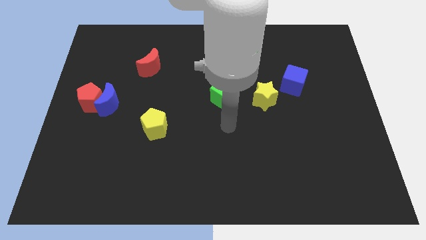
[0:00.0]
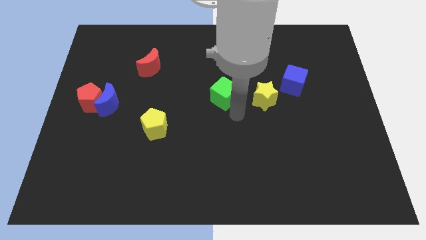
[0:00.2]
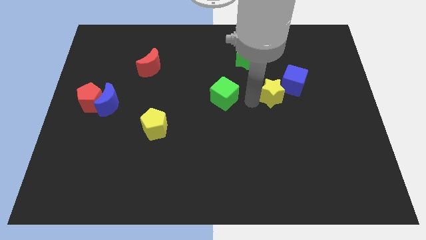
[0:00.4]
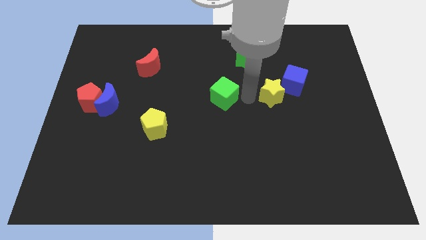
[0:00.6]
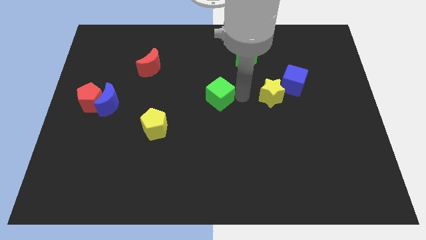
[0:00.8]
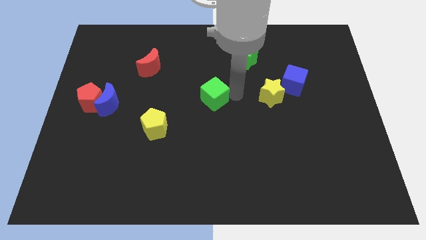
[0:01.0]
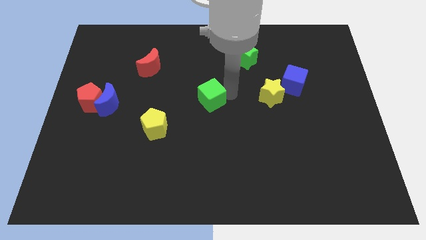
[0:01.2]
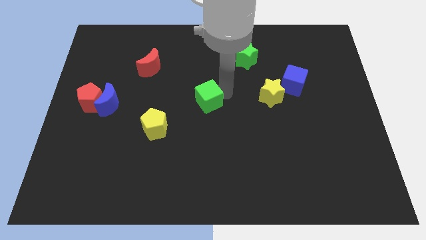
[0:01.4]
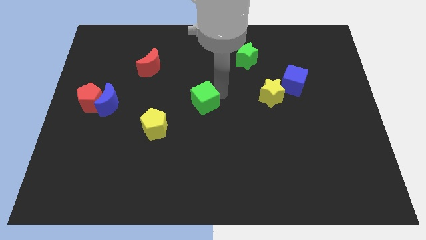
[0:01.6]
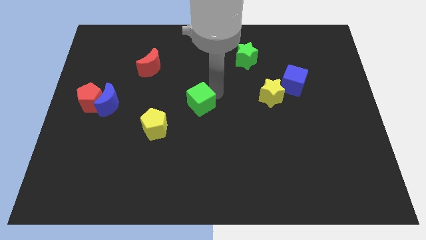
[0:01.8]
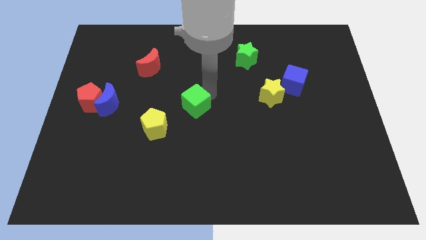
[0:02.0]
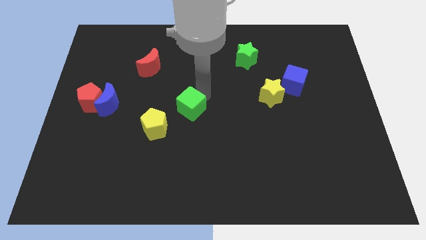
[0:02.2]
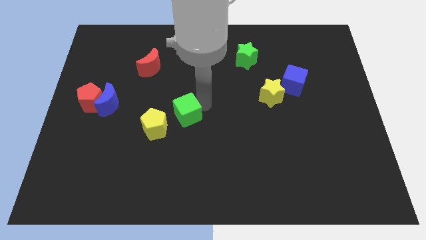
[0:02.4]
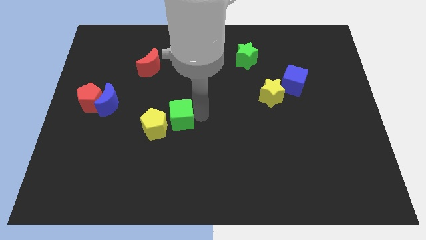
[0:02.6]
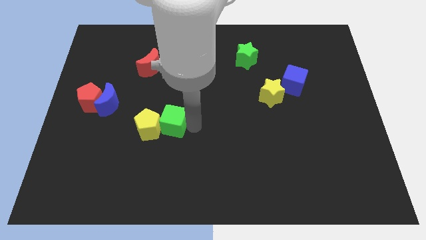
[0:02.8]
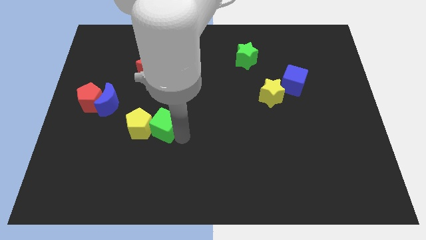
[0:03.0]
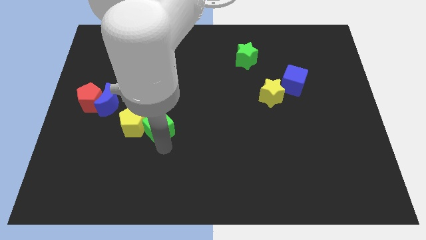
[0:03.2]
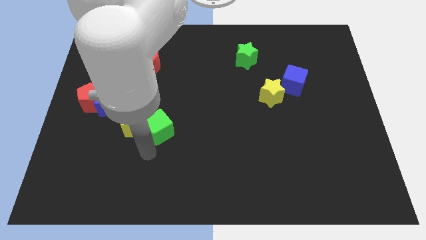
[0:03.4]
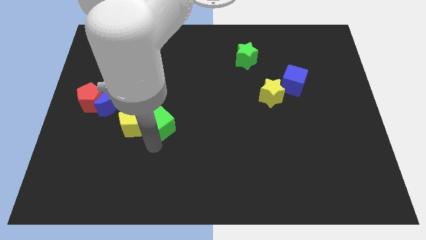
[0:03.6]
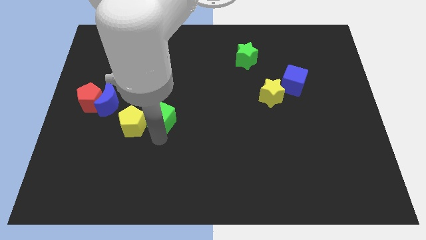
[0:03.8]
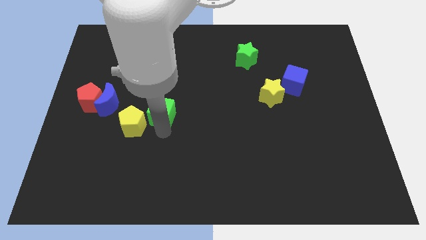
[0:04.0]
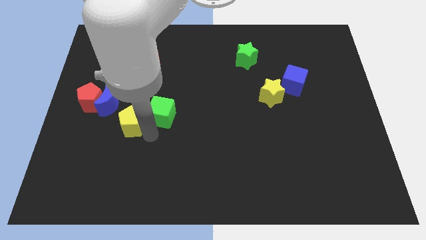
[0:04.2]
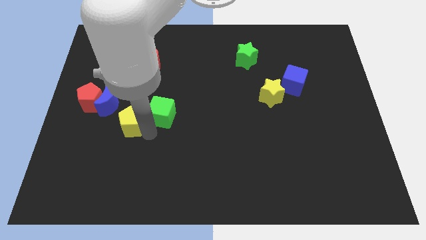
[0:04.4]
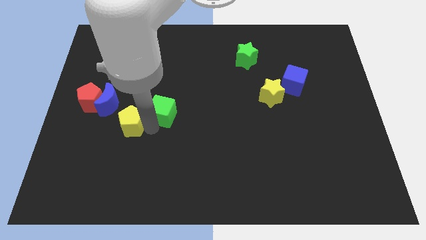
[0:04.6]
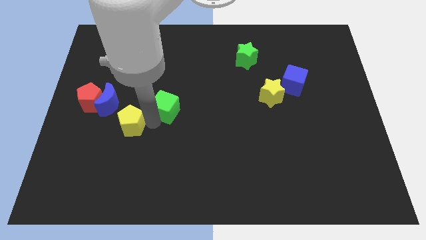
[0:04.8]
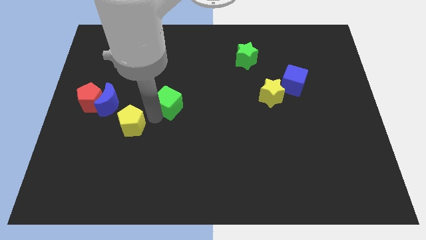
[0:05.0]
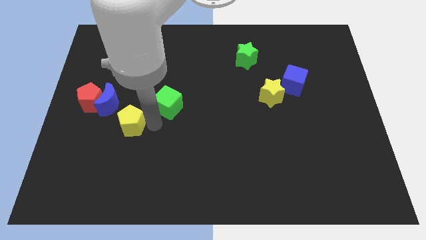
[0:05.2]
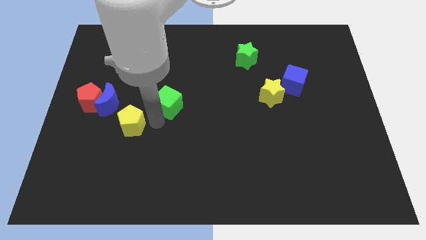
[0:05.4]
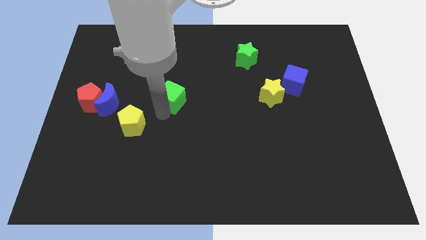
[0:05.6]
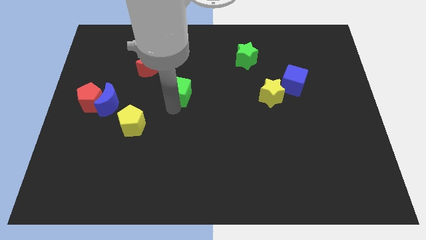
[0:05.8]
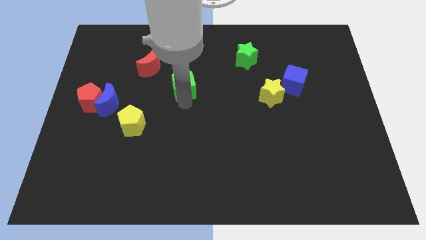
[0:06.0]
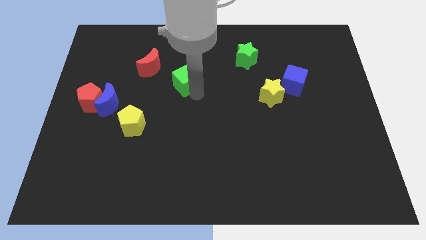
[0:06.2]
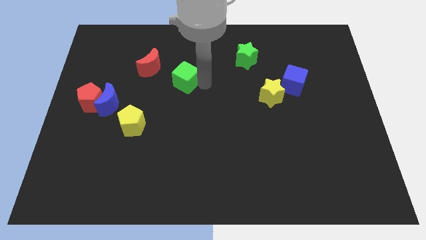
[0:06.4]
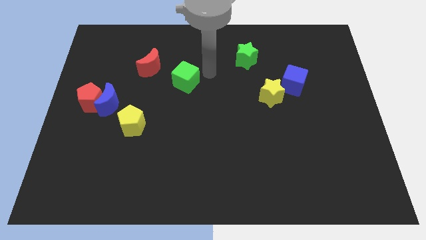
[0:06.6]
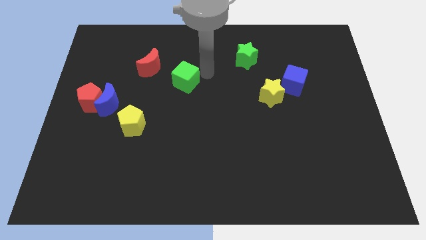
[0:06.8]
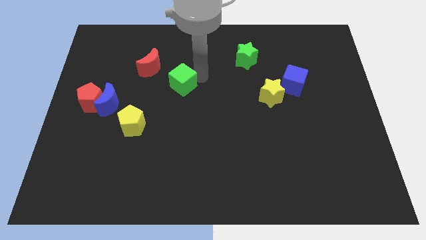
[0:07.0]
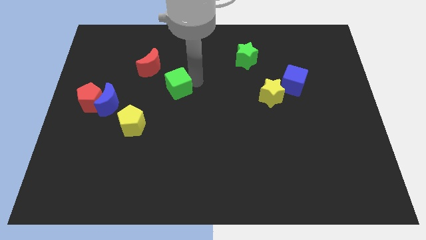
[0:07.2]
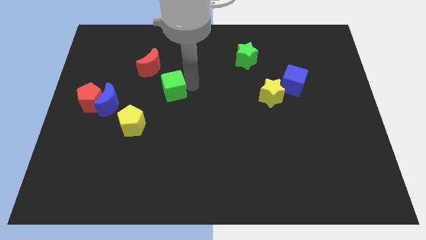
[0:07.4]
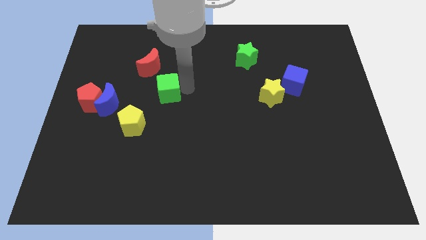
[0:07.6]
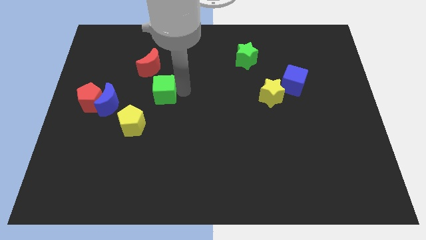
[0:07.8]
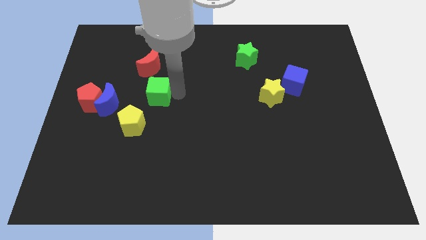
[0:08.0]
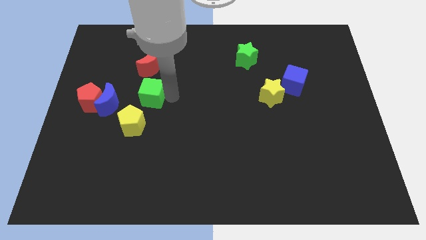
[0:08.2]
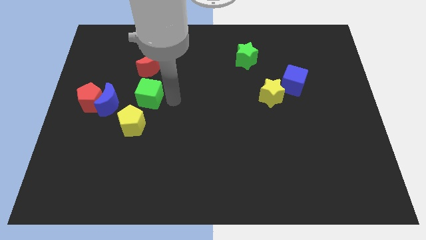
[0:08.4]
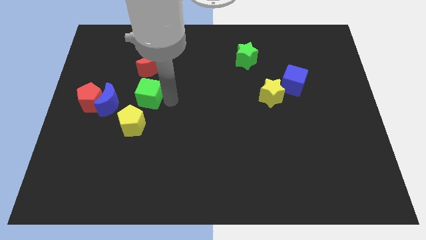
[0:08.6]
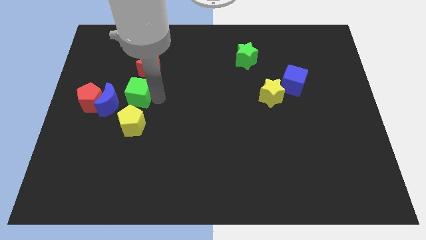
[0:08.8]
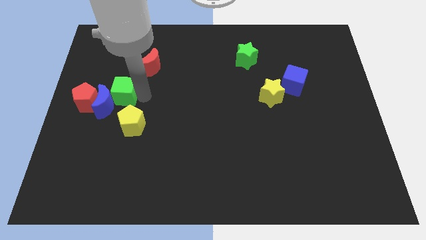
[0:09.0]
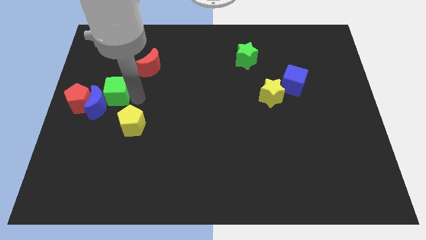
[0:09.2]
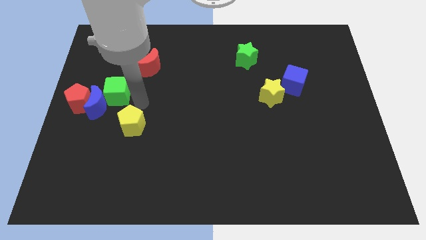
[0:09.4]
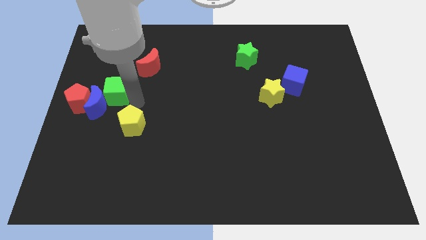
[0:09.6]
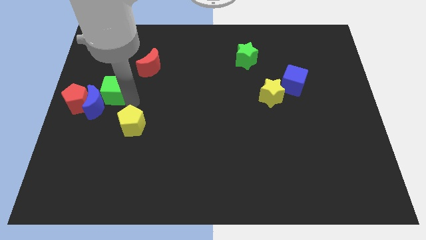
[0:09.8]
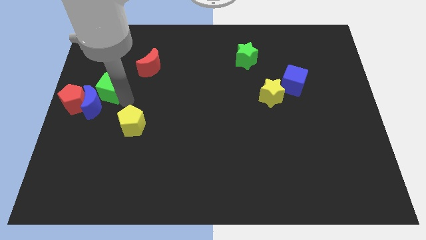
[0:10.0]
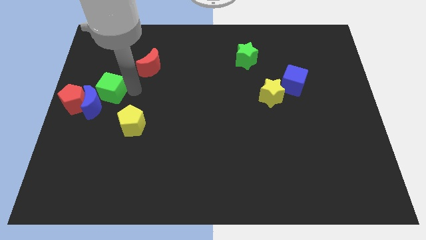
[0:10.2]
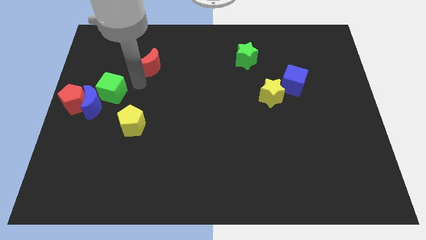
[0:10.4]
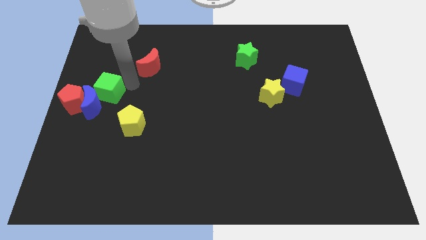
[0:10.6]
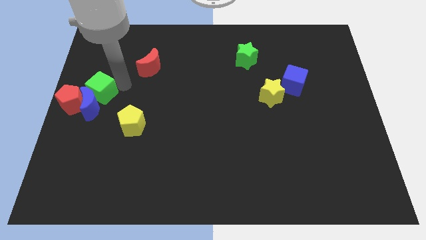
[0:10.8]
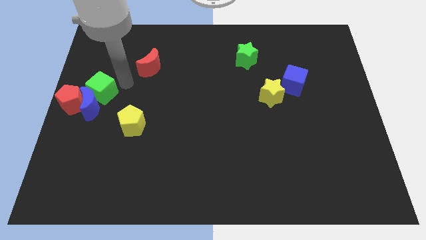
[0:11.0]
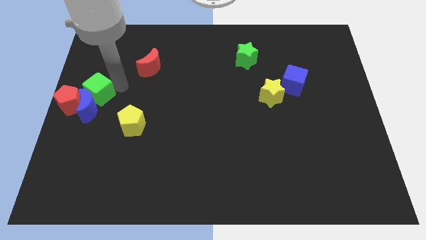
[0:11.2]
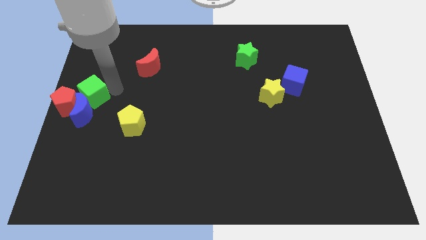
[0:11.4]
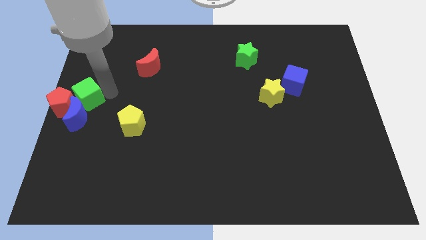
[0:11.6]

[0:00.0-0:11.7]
slide the green cube to the red pentagon

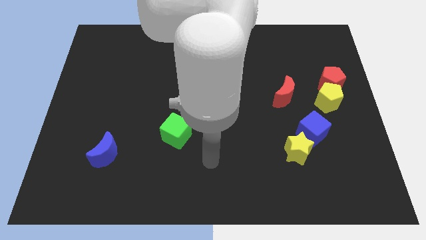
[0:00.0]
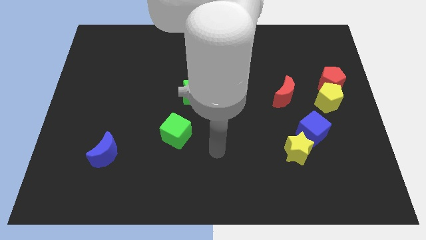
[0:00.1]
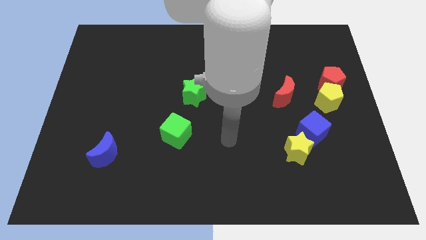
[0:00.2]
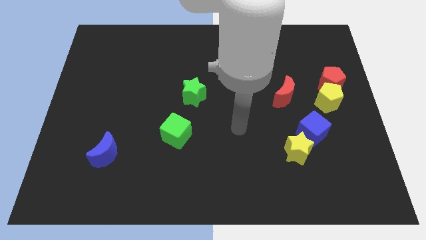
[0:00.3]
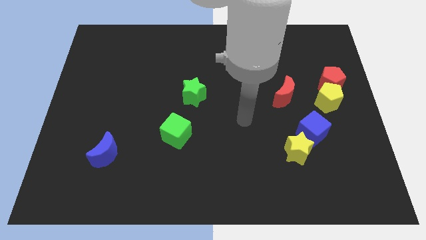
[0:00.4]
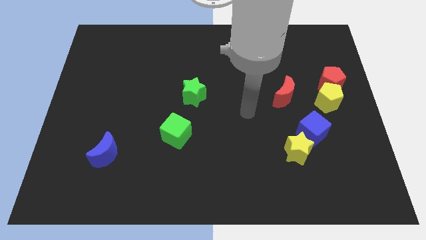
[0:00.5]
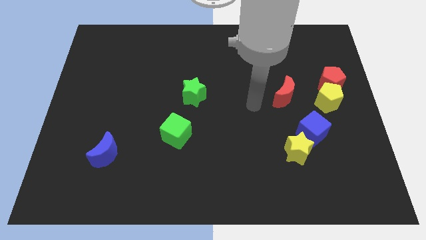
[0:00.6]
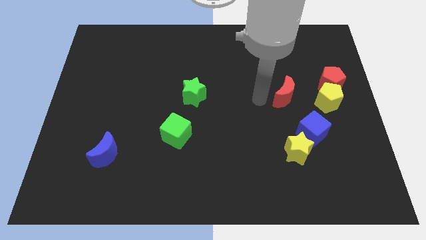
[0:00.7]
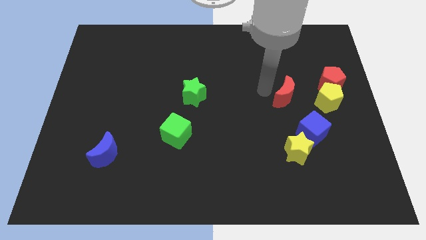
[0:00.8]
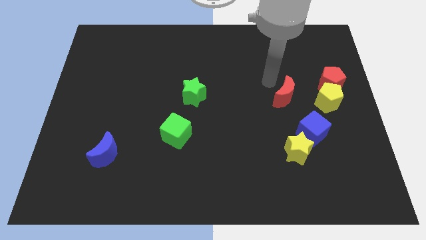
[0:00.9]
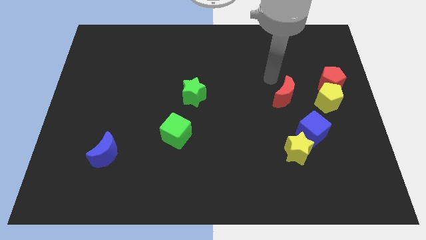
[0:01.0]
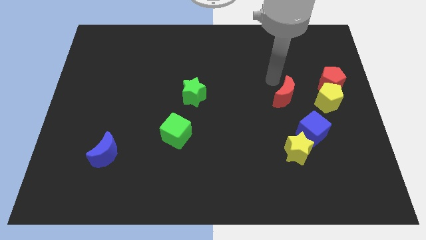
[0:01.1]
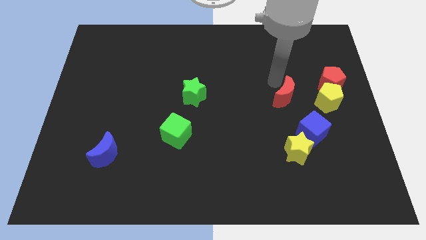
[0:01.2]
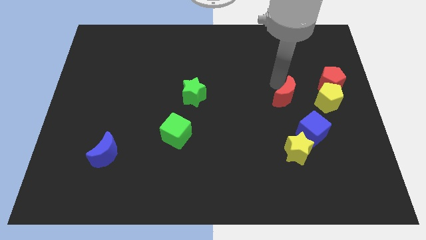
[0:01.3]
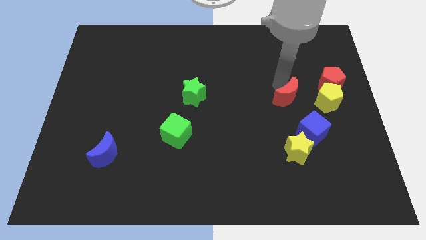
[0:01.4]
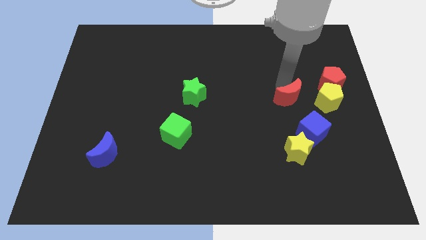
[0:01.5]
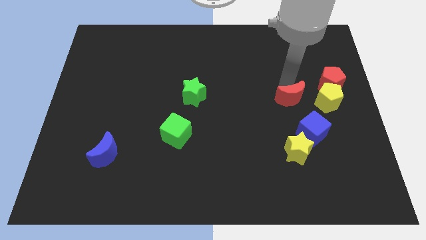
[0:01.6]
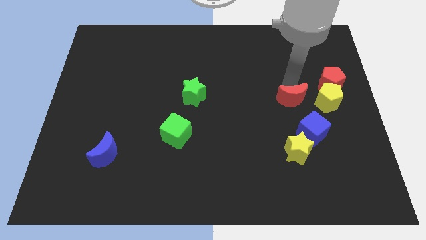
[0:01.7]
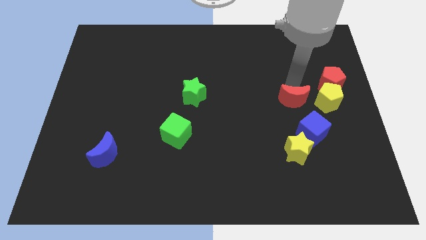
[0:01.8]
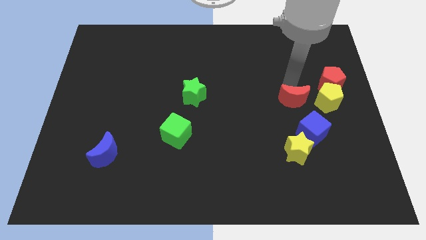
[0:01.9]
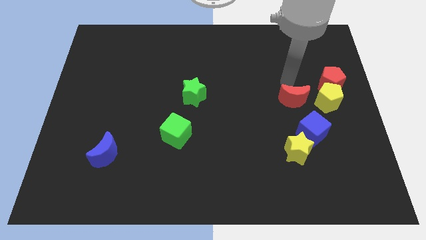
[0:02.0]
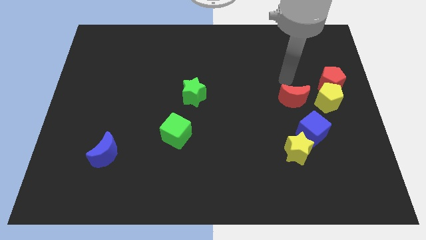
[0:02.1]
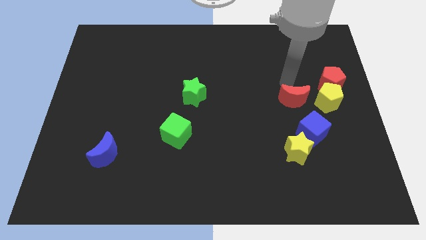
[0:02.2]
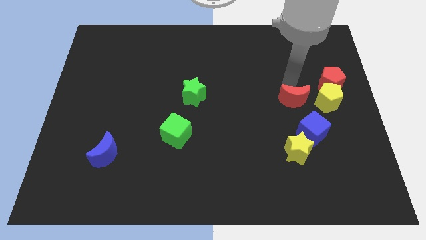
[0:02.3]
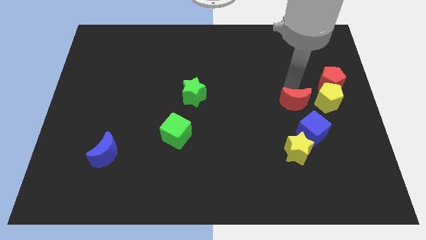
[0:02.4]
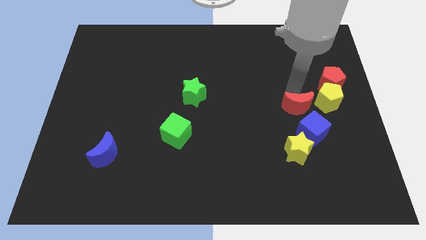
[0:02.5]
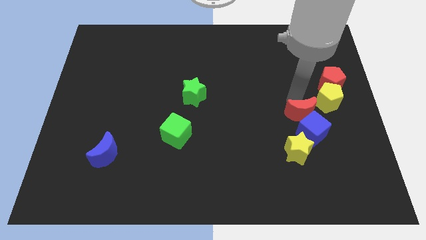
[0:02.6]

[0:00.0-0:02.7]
push the red moon close to the blue cube
